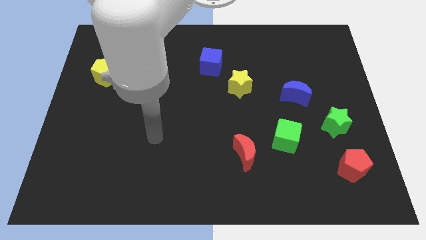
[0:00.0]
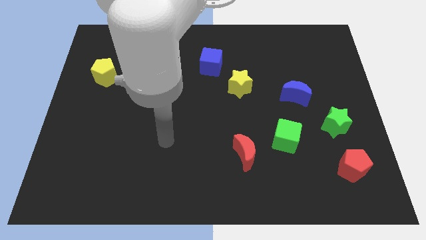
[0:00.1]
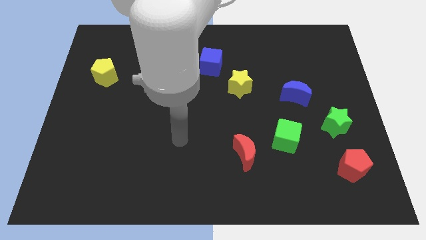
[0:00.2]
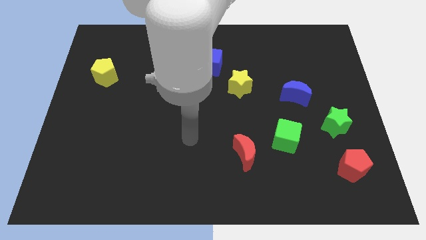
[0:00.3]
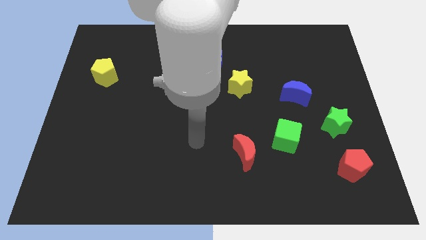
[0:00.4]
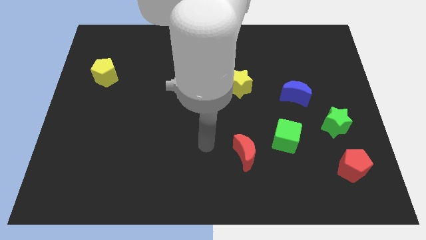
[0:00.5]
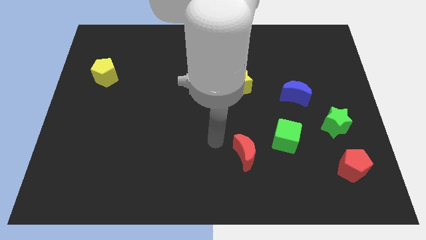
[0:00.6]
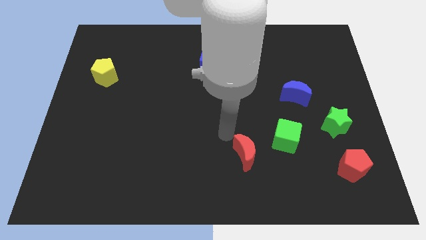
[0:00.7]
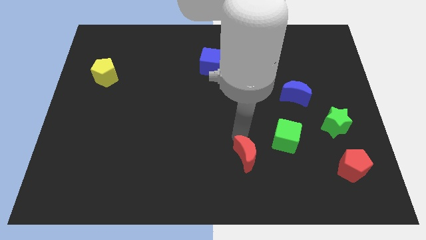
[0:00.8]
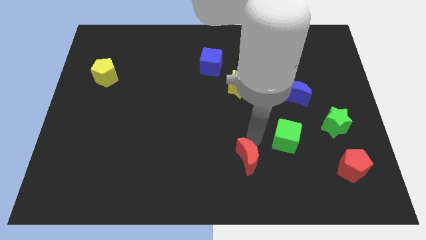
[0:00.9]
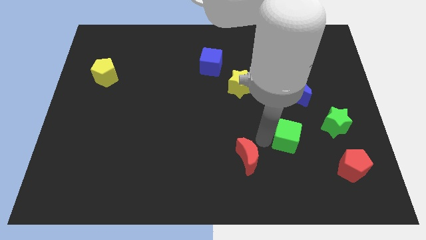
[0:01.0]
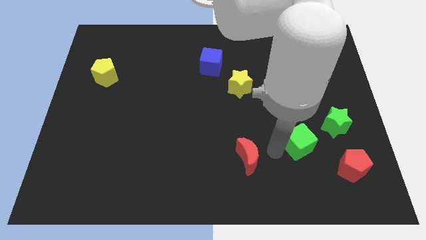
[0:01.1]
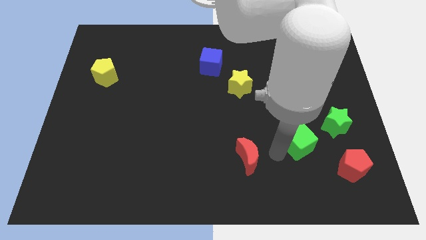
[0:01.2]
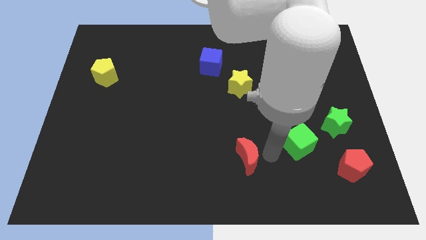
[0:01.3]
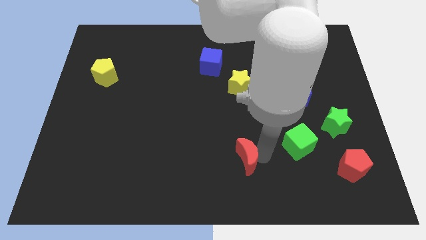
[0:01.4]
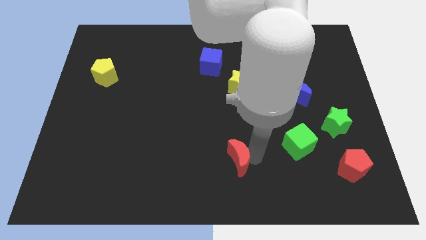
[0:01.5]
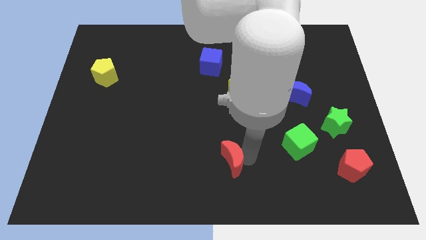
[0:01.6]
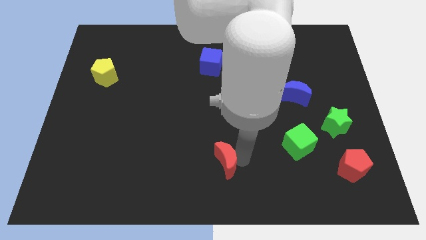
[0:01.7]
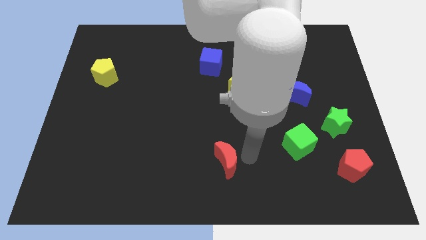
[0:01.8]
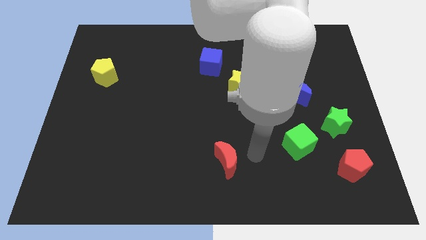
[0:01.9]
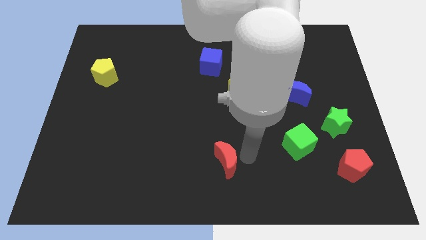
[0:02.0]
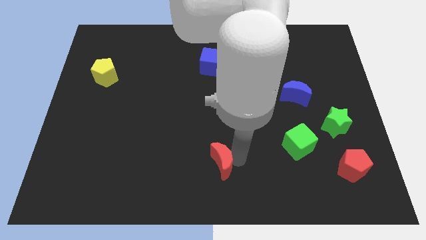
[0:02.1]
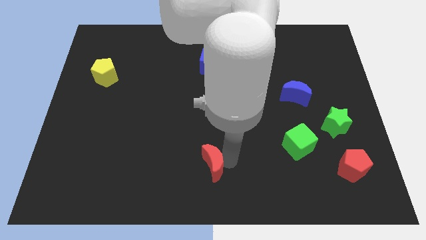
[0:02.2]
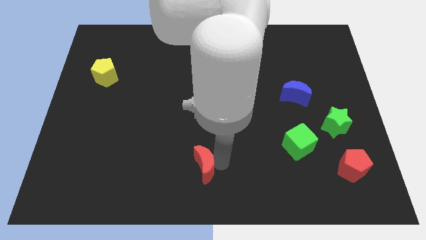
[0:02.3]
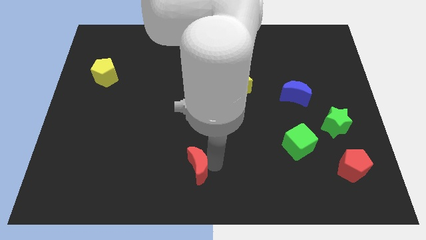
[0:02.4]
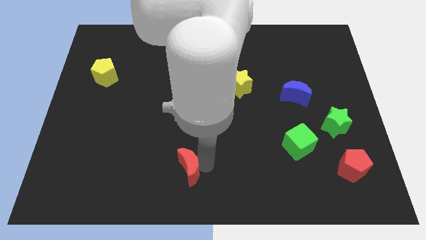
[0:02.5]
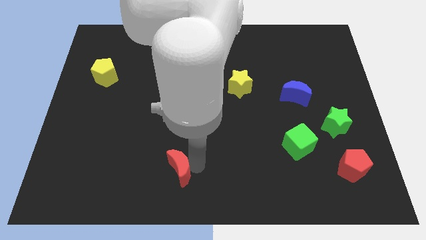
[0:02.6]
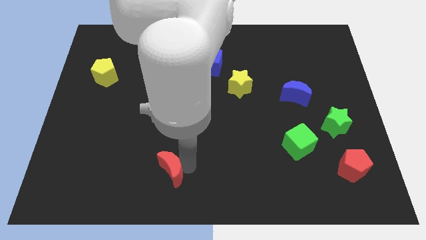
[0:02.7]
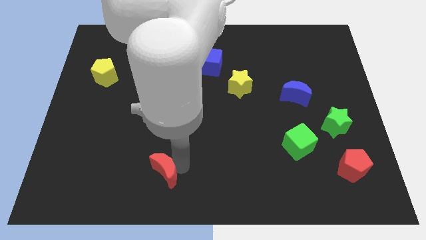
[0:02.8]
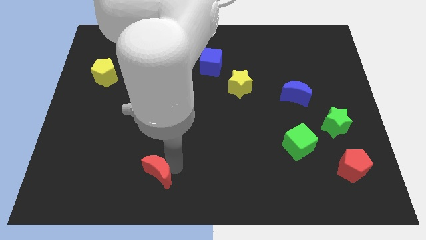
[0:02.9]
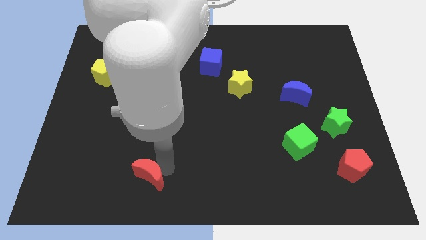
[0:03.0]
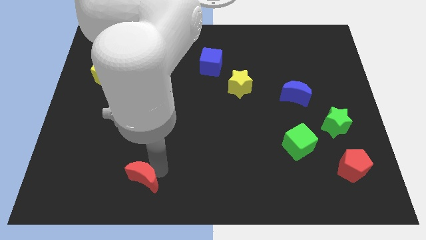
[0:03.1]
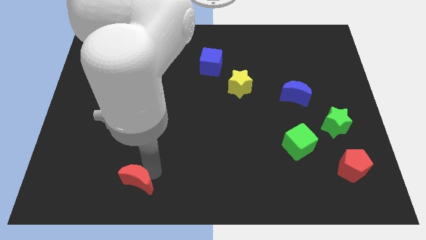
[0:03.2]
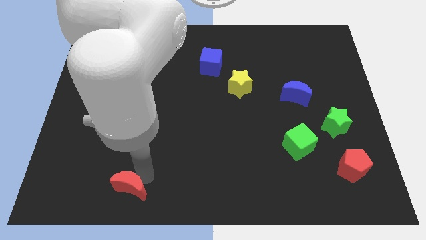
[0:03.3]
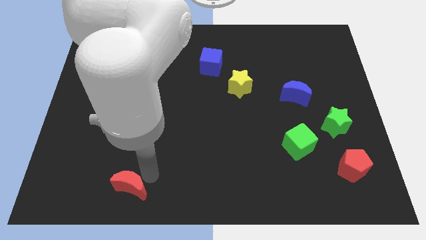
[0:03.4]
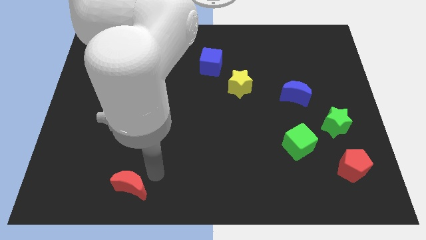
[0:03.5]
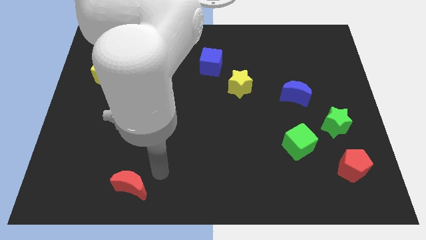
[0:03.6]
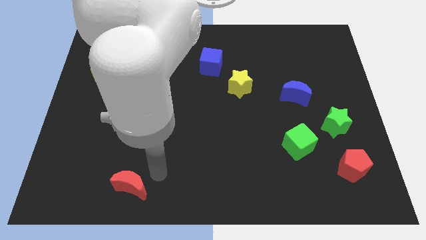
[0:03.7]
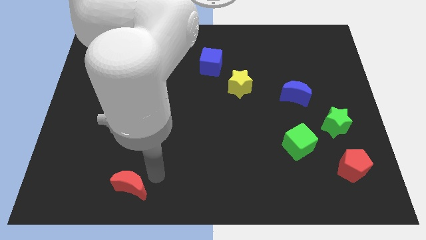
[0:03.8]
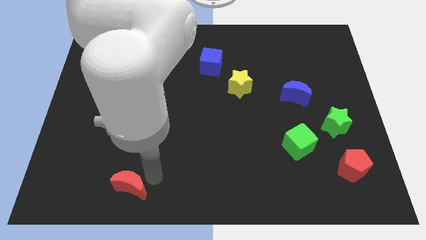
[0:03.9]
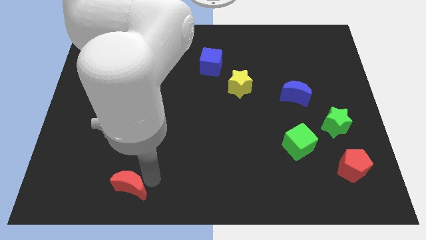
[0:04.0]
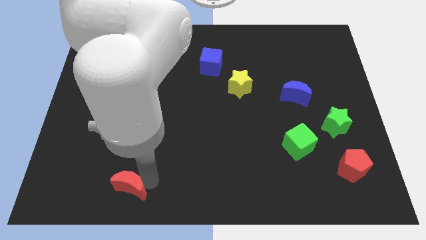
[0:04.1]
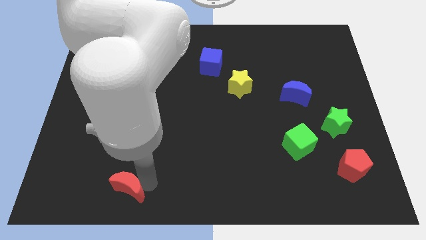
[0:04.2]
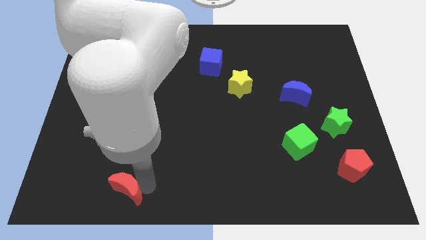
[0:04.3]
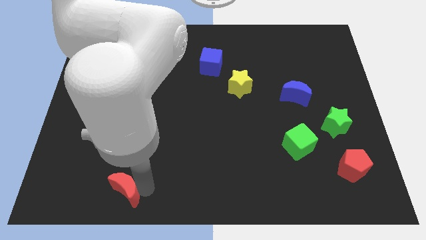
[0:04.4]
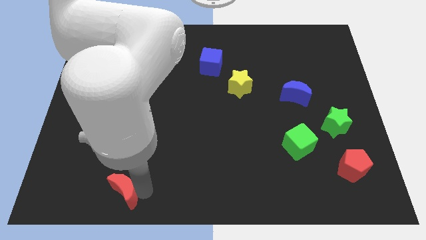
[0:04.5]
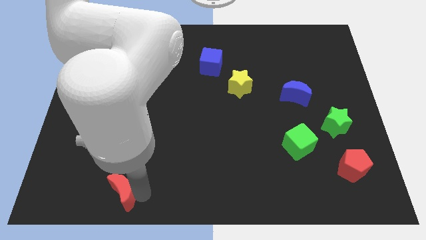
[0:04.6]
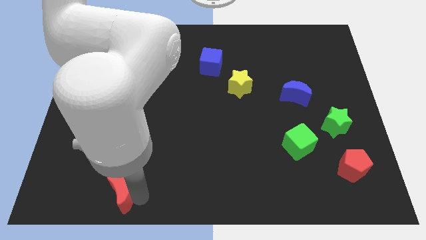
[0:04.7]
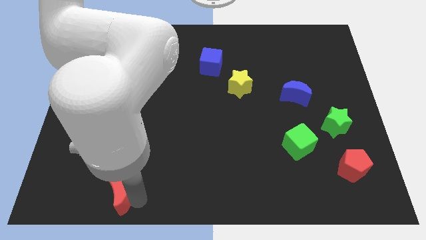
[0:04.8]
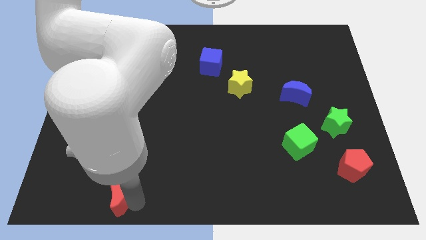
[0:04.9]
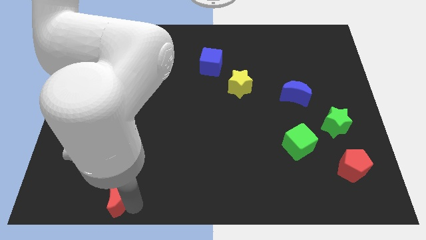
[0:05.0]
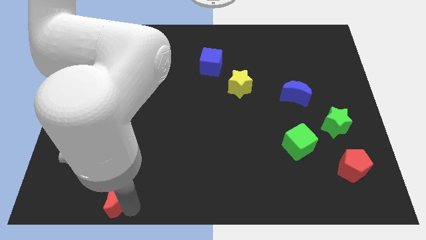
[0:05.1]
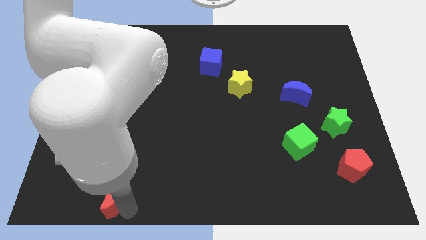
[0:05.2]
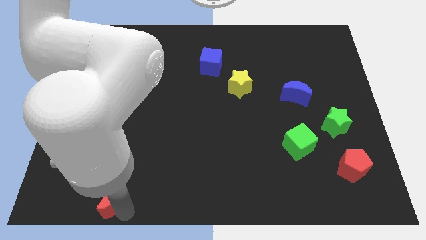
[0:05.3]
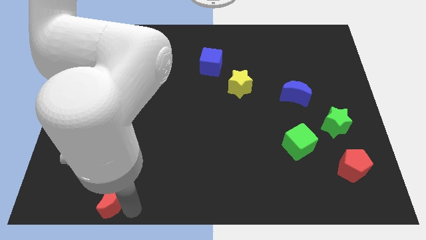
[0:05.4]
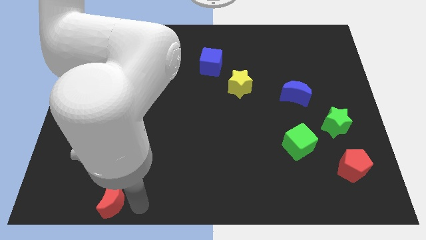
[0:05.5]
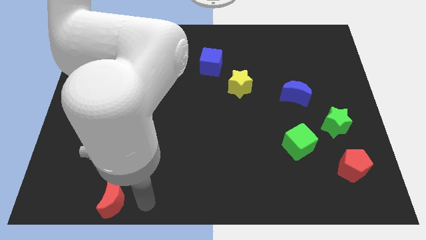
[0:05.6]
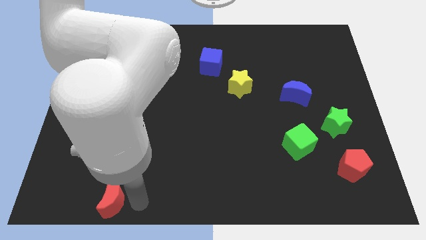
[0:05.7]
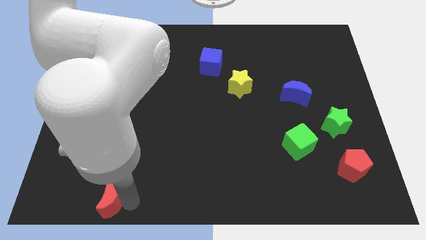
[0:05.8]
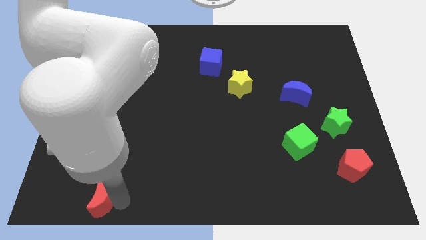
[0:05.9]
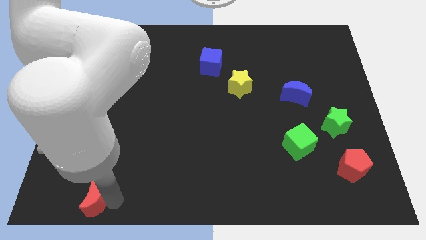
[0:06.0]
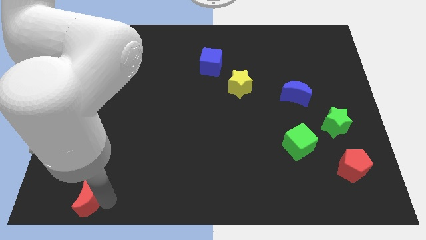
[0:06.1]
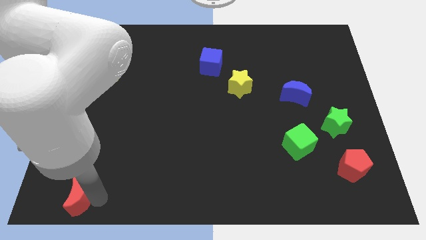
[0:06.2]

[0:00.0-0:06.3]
slide the red moon to the bottom left of the board
